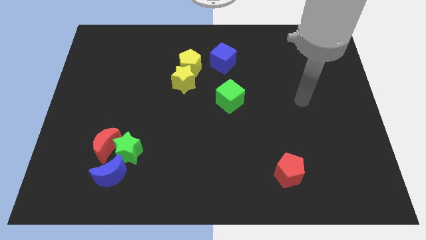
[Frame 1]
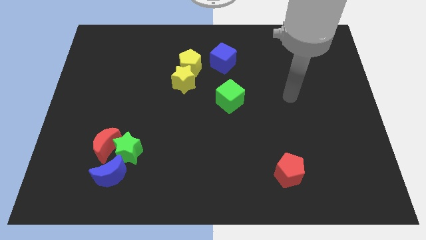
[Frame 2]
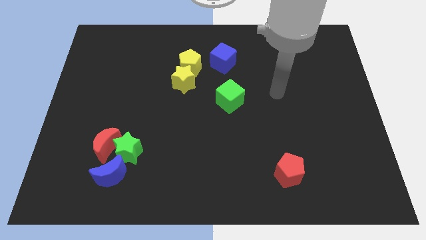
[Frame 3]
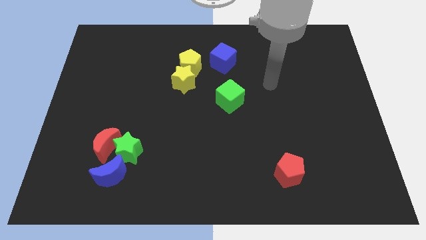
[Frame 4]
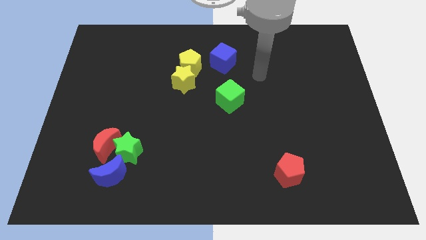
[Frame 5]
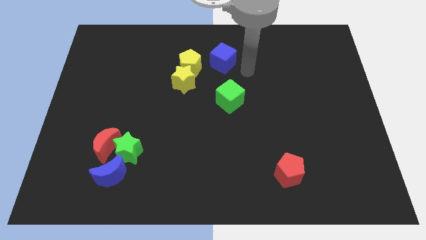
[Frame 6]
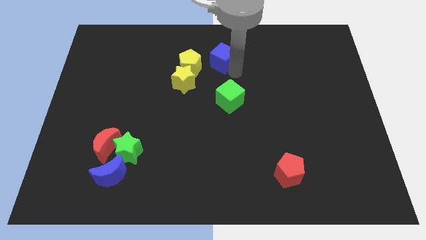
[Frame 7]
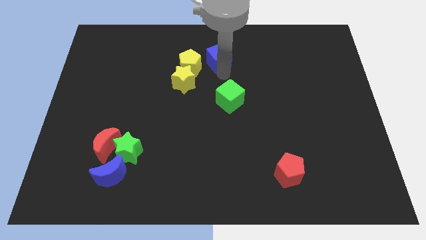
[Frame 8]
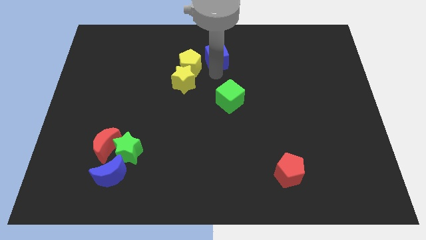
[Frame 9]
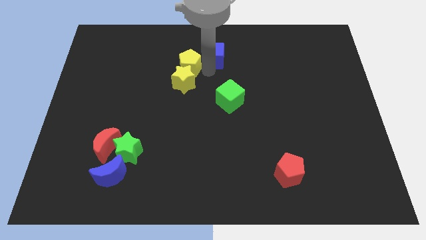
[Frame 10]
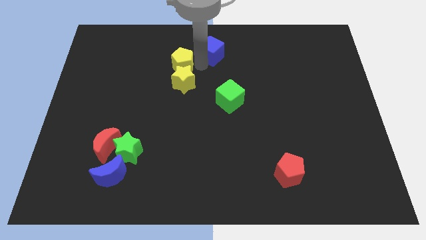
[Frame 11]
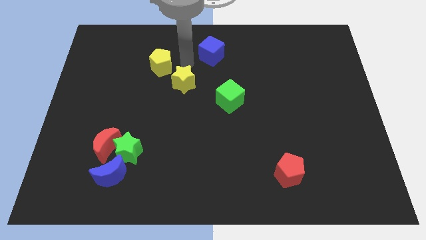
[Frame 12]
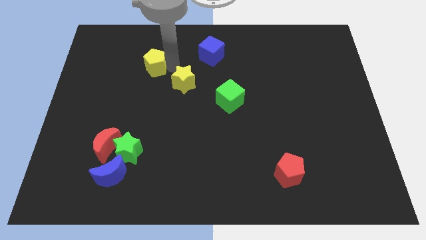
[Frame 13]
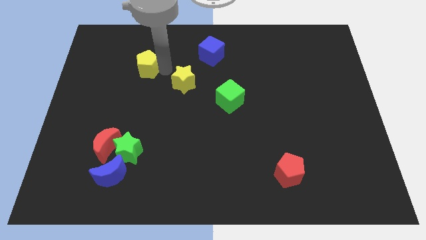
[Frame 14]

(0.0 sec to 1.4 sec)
pull the yellow star apart from the yellow pentagon

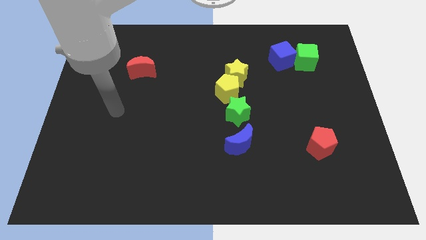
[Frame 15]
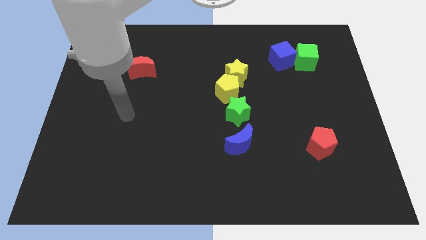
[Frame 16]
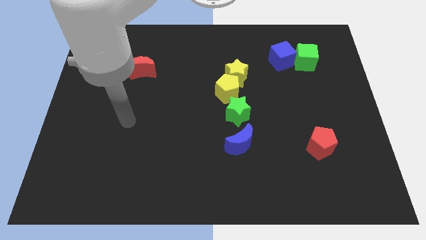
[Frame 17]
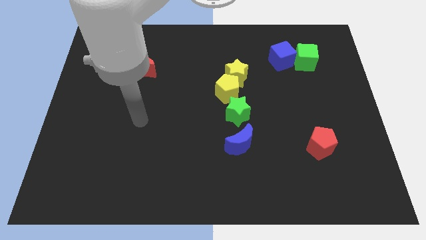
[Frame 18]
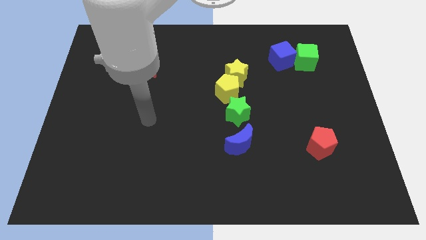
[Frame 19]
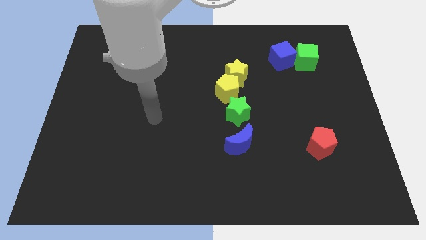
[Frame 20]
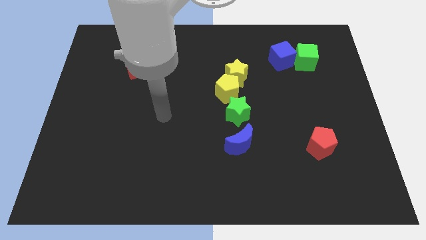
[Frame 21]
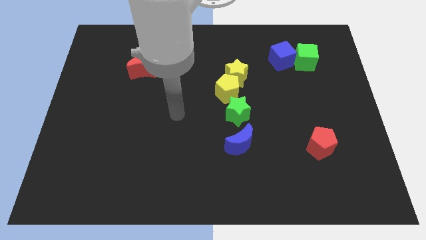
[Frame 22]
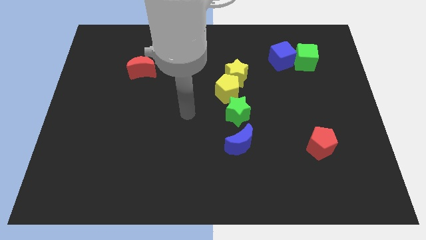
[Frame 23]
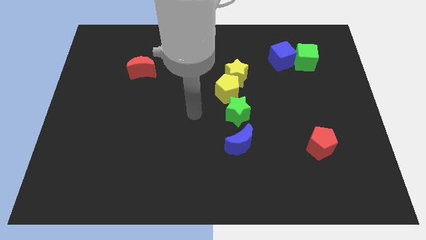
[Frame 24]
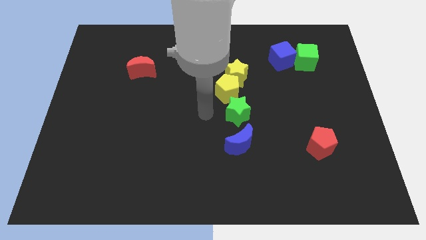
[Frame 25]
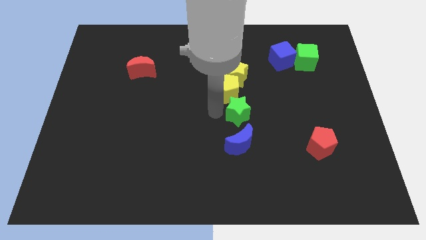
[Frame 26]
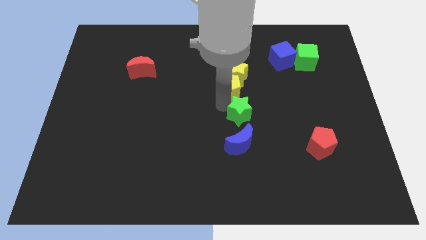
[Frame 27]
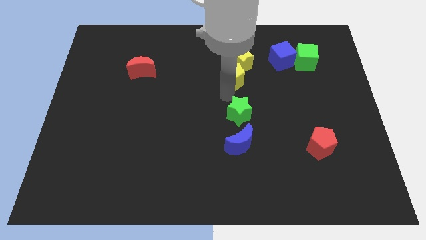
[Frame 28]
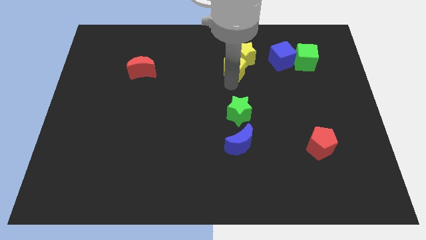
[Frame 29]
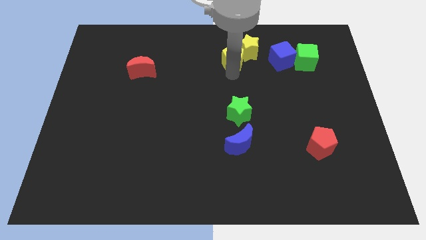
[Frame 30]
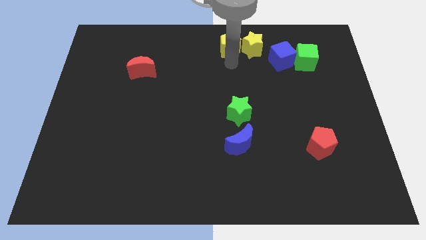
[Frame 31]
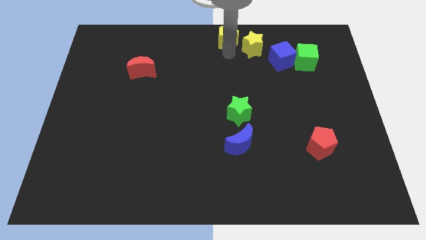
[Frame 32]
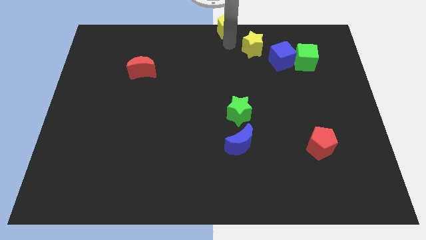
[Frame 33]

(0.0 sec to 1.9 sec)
separate the yellow star from the yellow pentagon

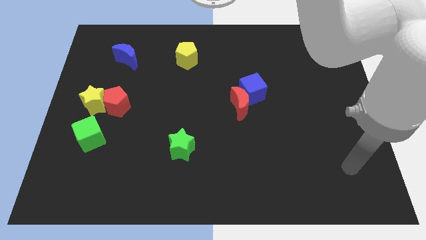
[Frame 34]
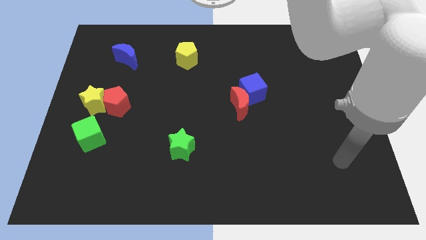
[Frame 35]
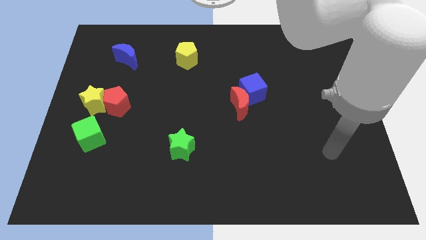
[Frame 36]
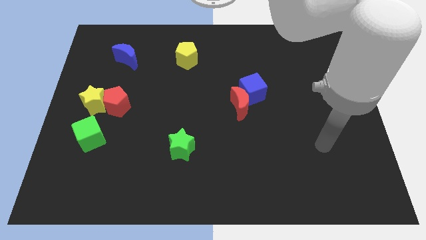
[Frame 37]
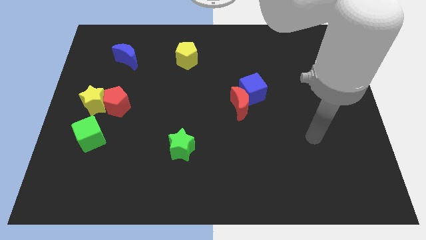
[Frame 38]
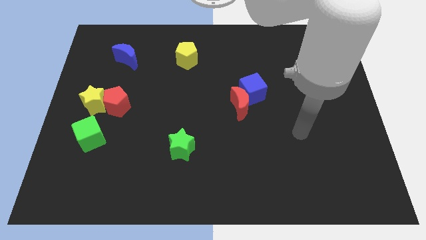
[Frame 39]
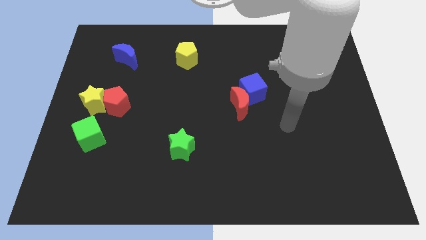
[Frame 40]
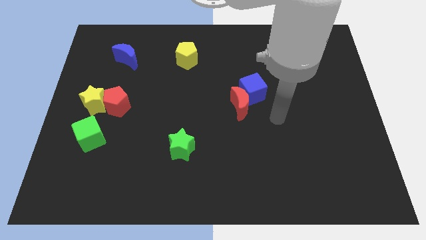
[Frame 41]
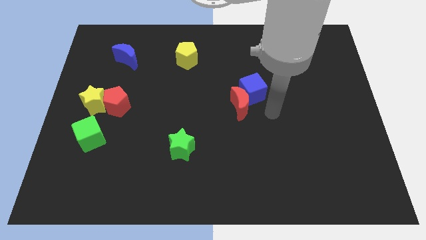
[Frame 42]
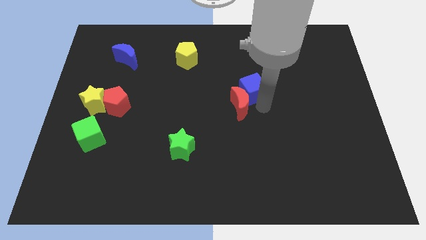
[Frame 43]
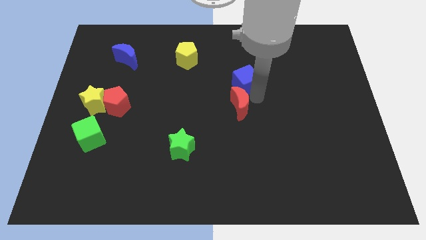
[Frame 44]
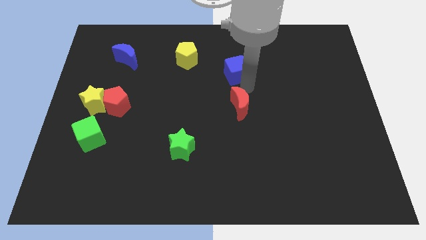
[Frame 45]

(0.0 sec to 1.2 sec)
separate the red moon from the blue cube

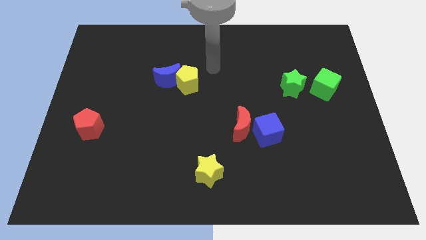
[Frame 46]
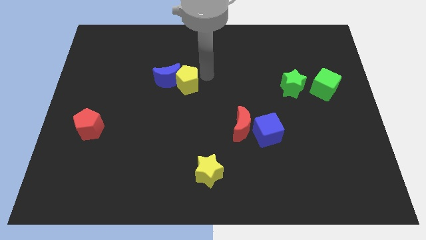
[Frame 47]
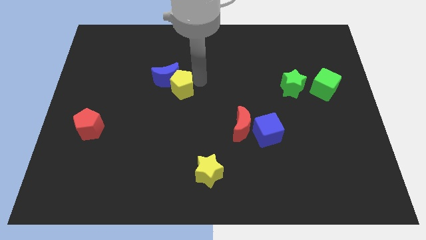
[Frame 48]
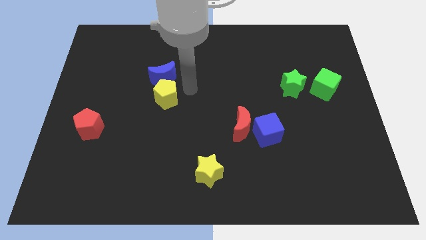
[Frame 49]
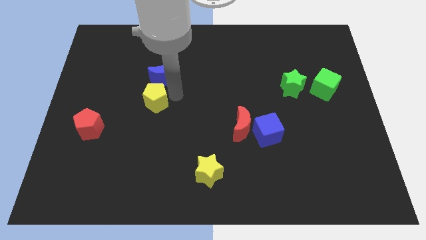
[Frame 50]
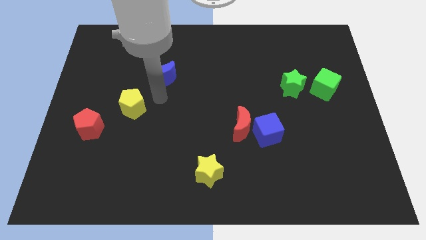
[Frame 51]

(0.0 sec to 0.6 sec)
move the blue moon away from the yellow pentagon

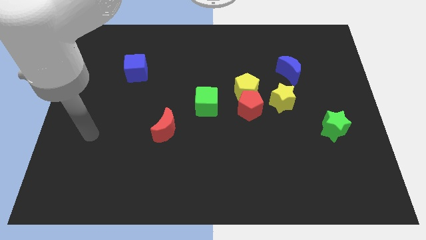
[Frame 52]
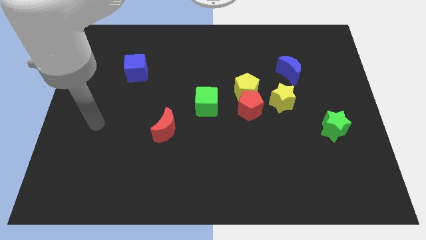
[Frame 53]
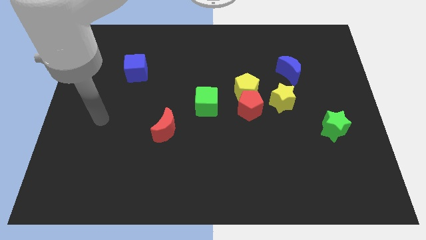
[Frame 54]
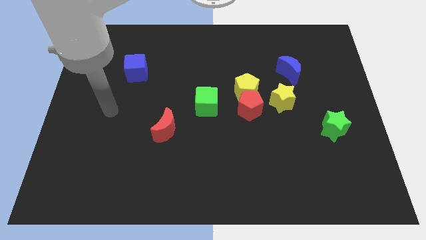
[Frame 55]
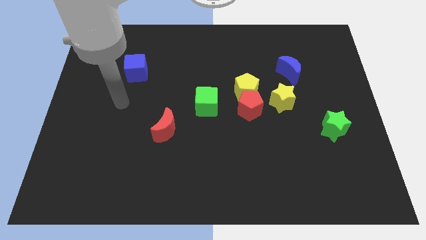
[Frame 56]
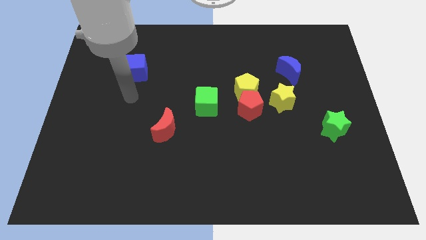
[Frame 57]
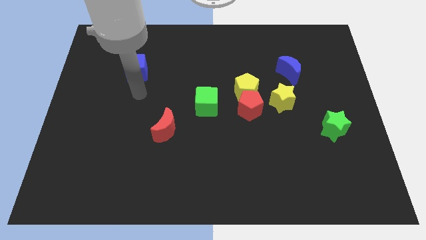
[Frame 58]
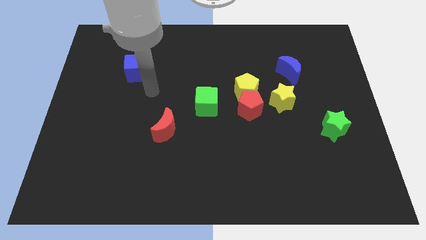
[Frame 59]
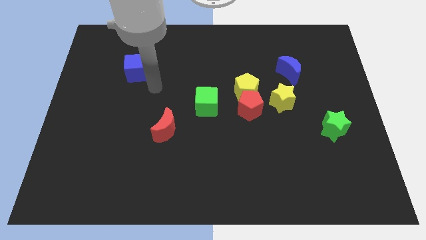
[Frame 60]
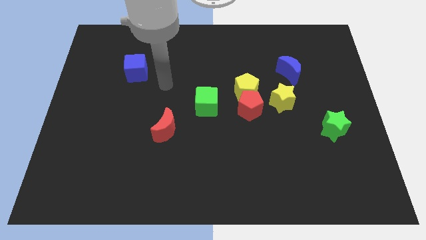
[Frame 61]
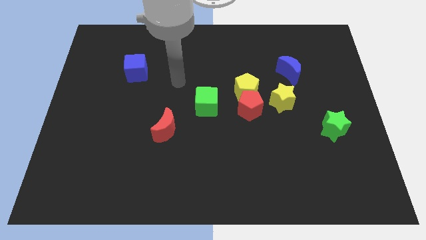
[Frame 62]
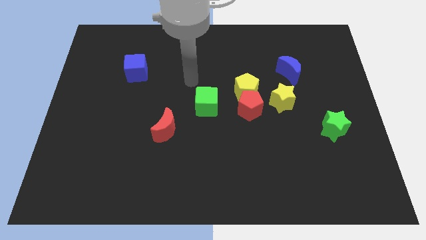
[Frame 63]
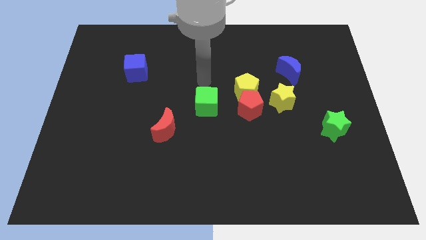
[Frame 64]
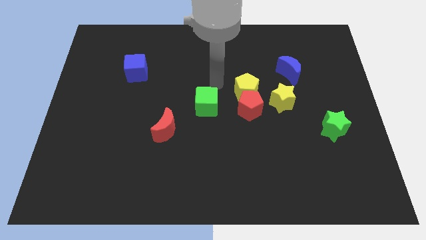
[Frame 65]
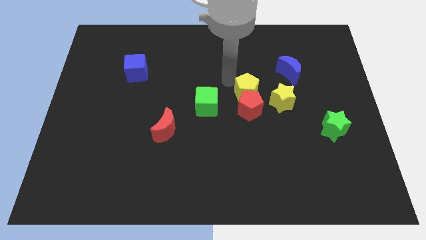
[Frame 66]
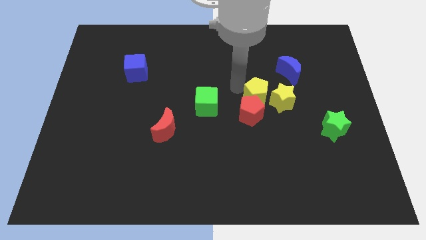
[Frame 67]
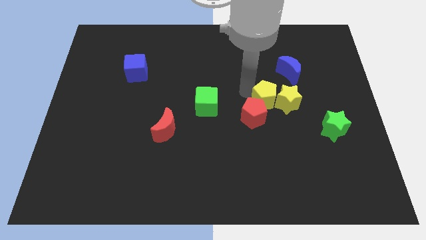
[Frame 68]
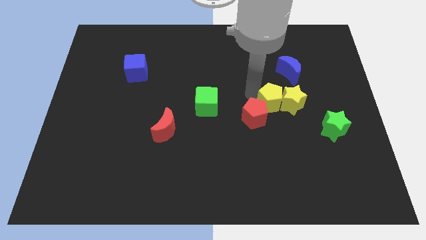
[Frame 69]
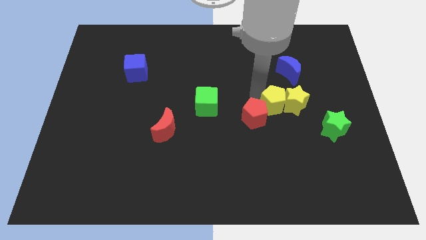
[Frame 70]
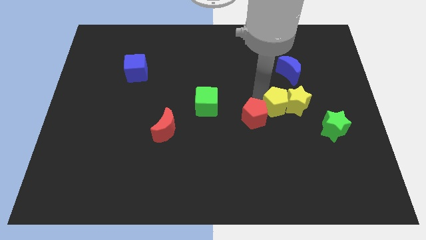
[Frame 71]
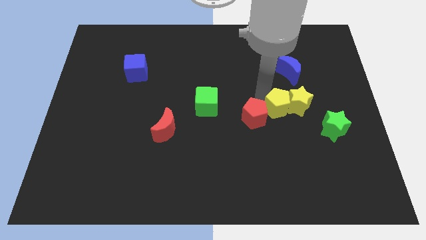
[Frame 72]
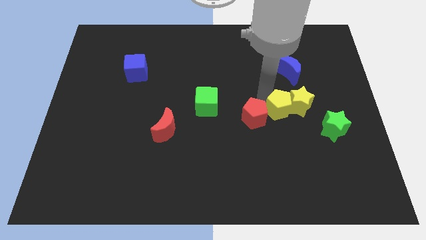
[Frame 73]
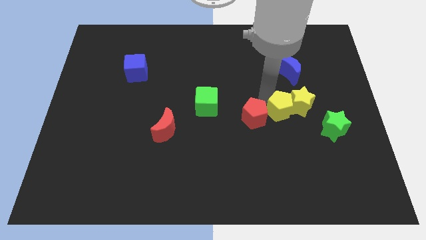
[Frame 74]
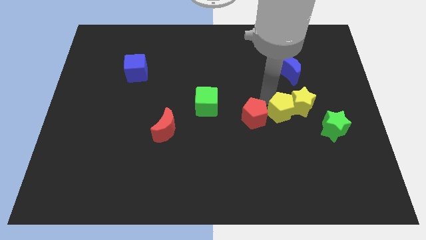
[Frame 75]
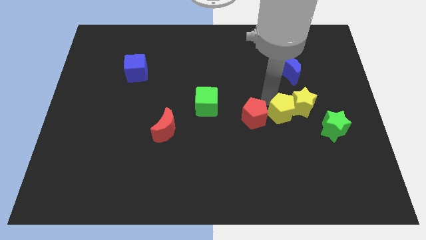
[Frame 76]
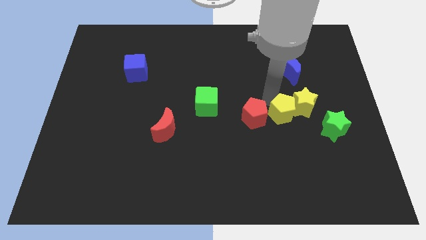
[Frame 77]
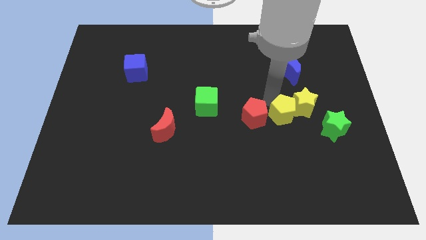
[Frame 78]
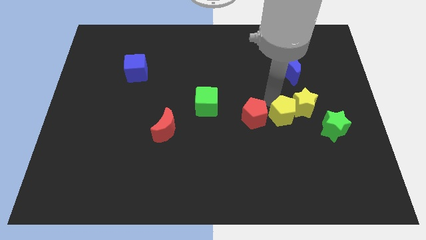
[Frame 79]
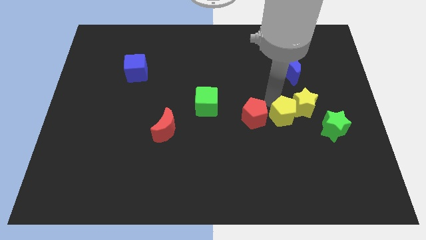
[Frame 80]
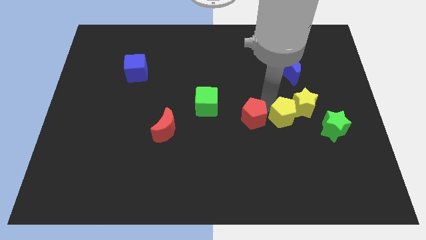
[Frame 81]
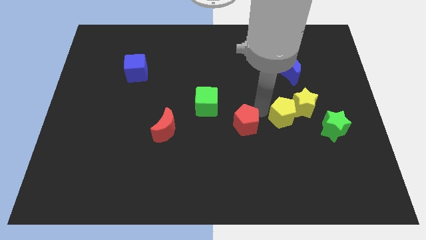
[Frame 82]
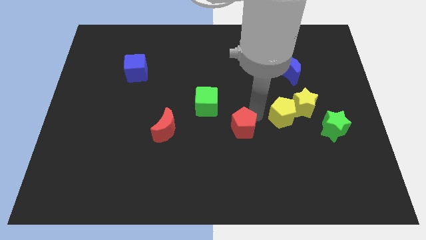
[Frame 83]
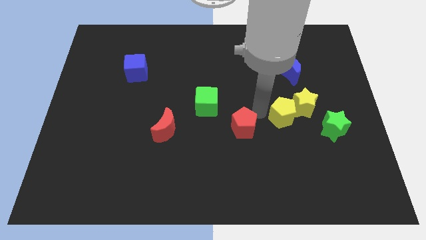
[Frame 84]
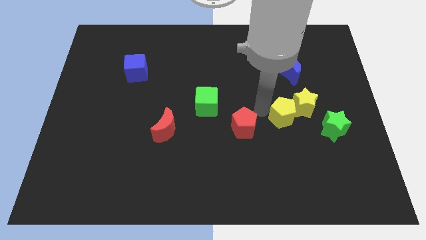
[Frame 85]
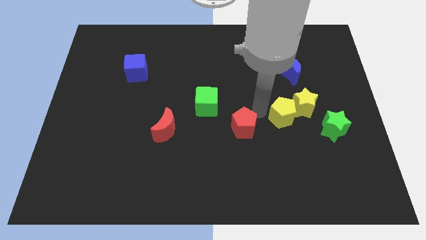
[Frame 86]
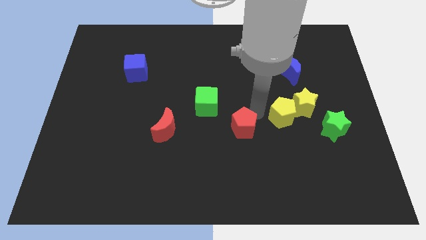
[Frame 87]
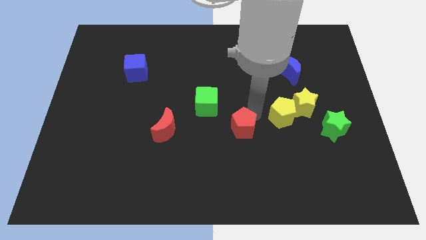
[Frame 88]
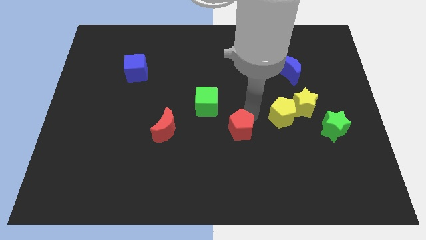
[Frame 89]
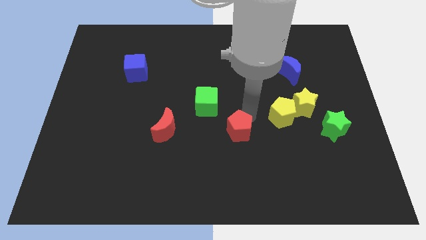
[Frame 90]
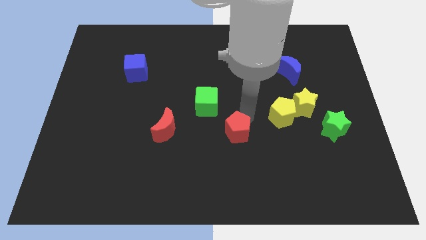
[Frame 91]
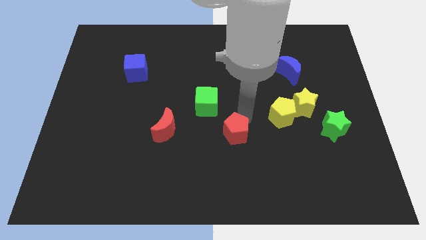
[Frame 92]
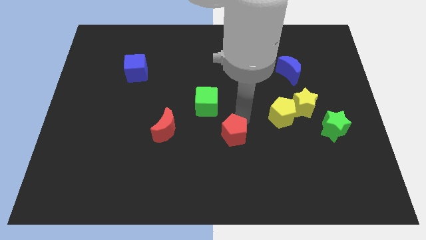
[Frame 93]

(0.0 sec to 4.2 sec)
separate the red pentagon from the group
